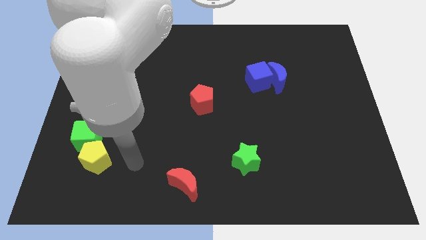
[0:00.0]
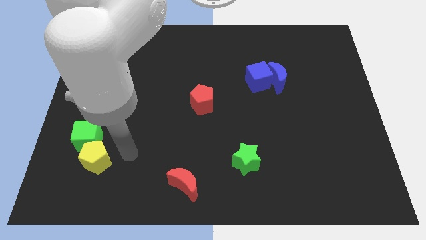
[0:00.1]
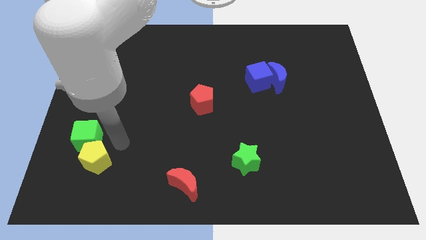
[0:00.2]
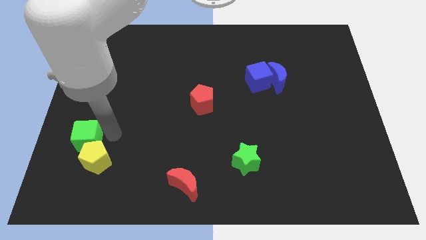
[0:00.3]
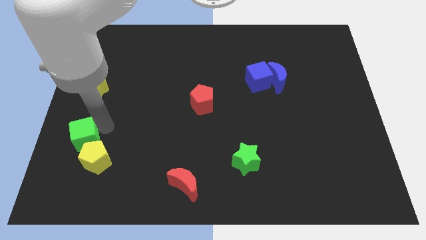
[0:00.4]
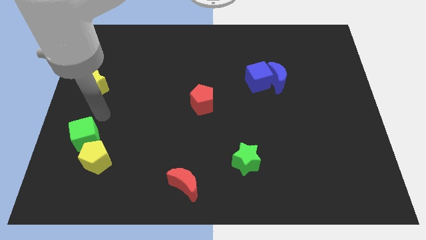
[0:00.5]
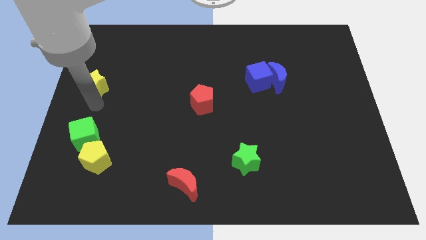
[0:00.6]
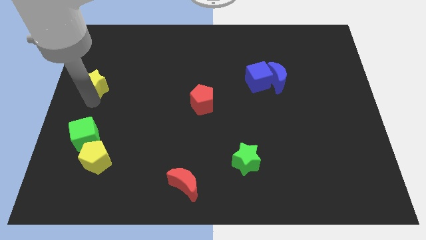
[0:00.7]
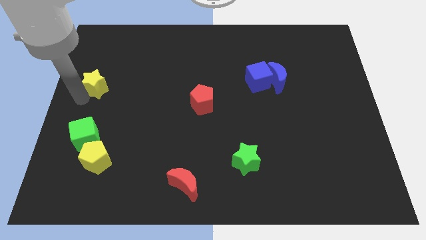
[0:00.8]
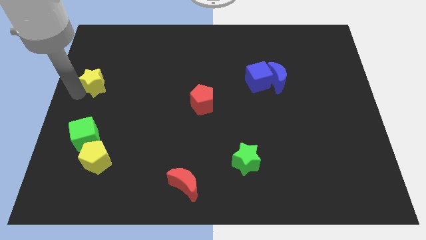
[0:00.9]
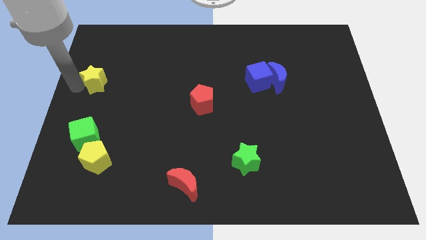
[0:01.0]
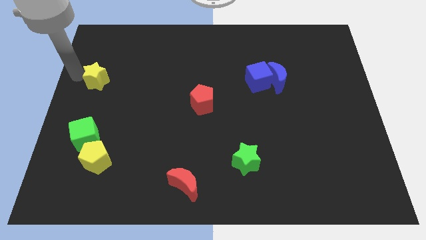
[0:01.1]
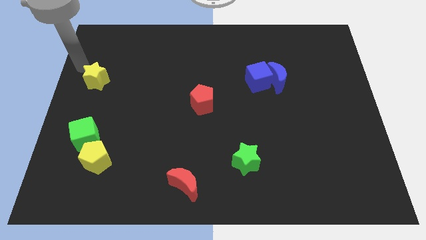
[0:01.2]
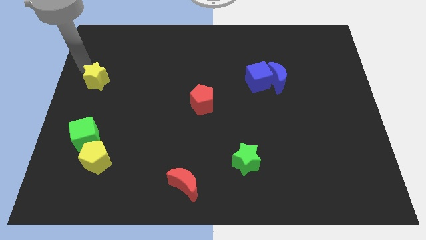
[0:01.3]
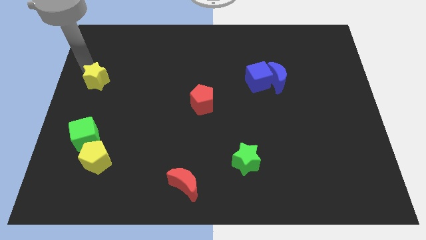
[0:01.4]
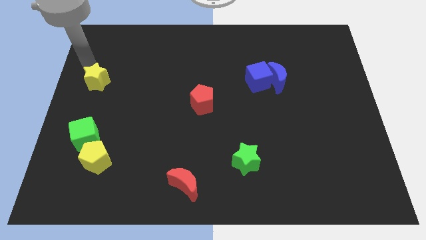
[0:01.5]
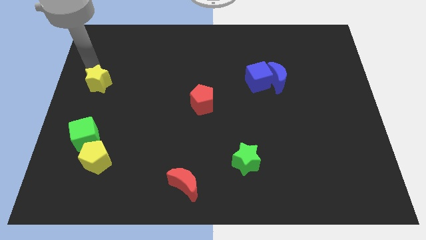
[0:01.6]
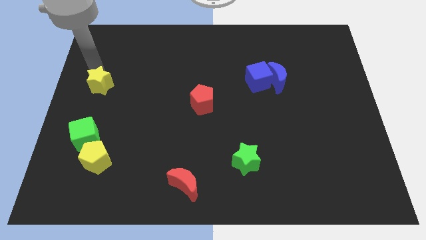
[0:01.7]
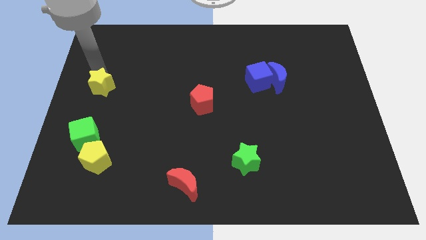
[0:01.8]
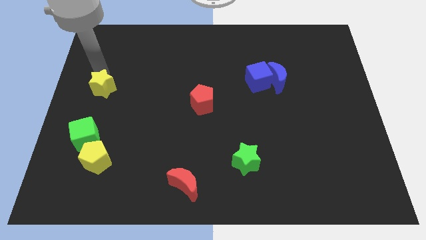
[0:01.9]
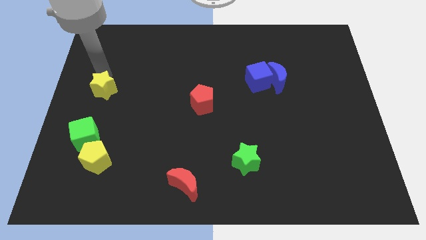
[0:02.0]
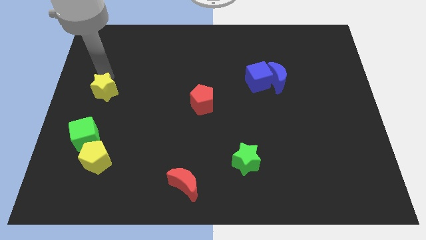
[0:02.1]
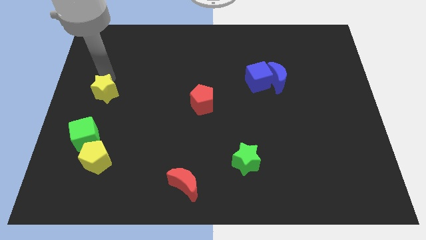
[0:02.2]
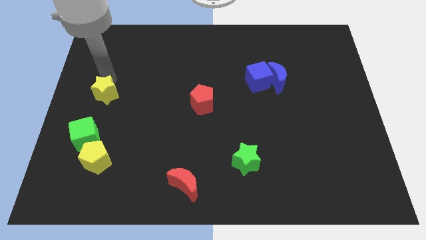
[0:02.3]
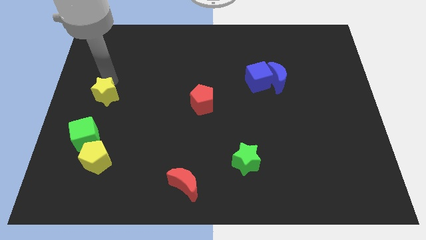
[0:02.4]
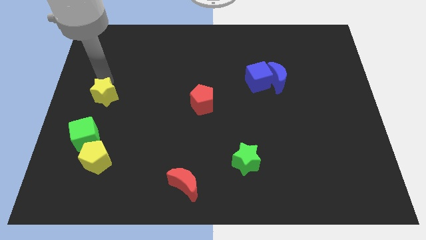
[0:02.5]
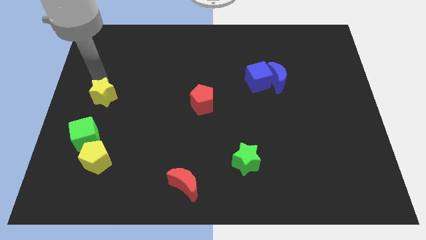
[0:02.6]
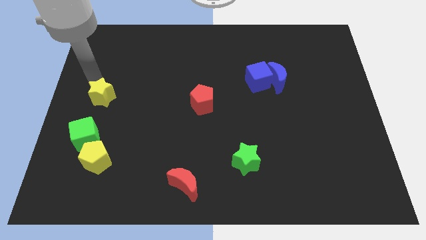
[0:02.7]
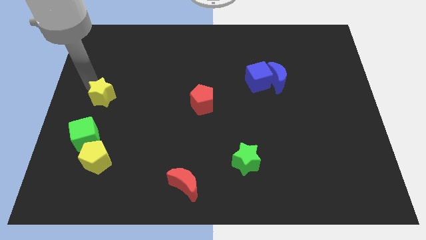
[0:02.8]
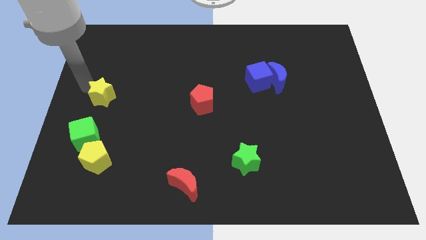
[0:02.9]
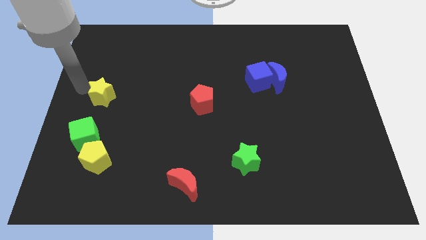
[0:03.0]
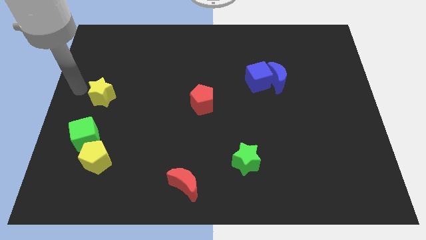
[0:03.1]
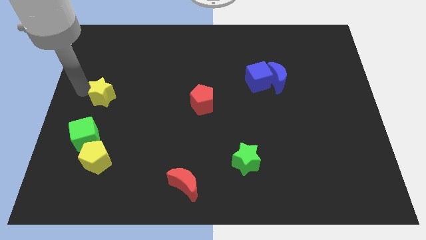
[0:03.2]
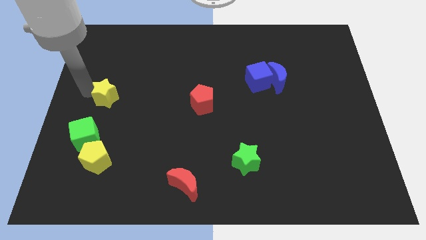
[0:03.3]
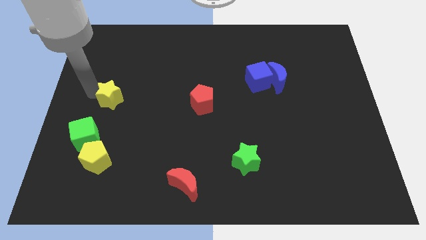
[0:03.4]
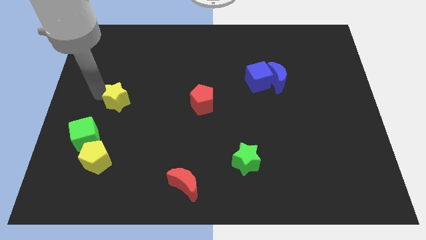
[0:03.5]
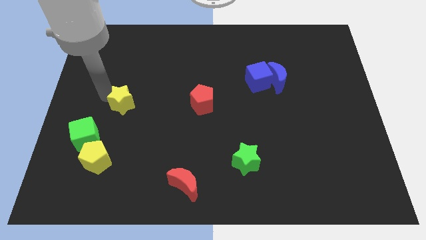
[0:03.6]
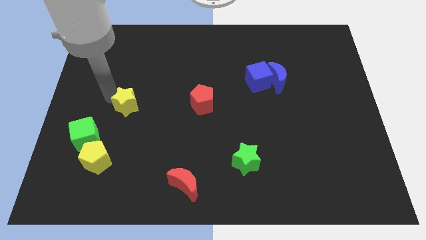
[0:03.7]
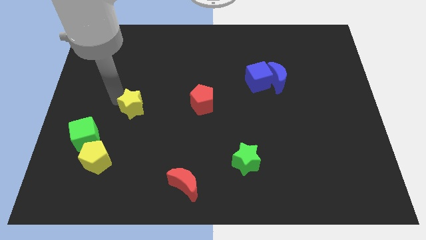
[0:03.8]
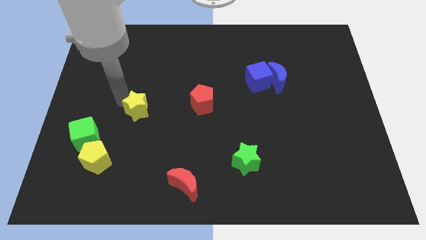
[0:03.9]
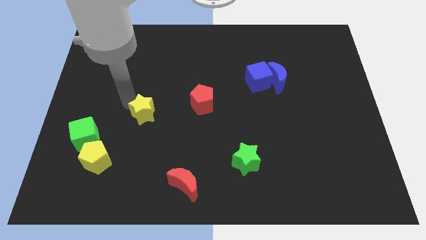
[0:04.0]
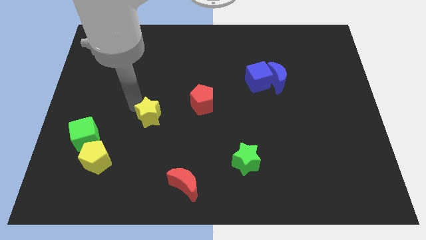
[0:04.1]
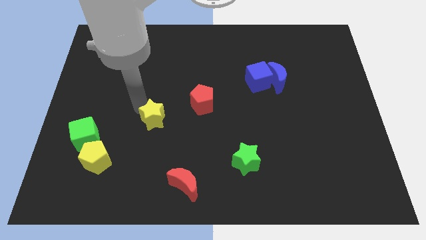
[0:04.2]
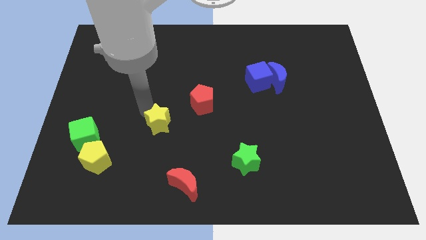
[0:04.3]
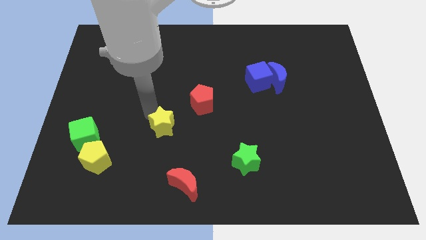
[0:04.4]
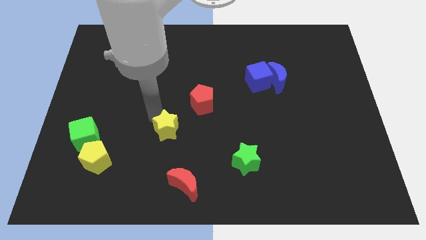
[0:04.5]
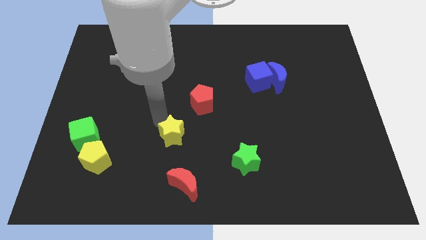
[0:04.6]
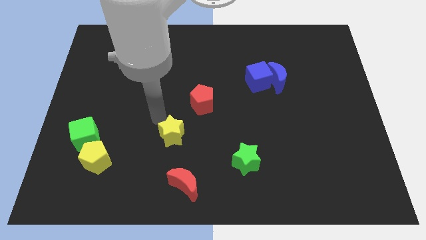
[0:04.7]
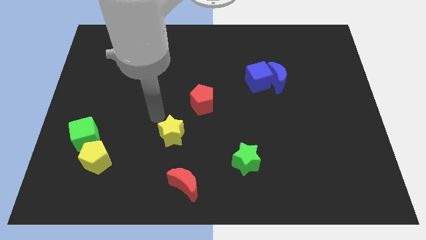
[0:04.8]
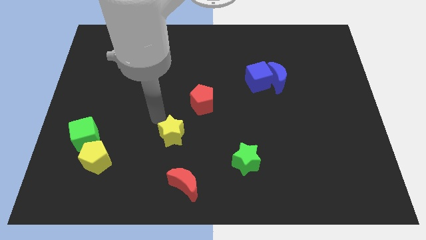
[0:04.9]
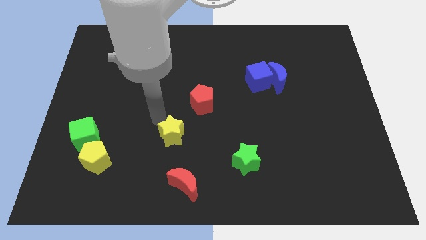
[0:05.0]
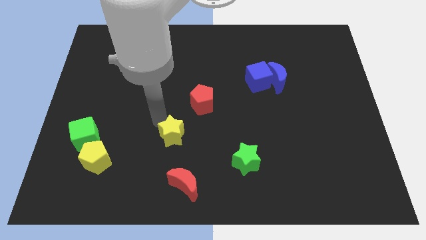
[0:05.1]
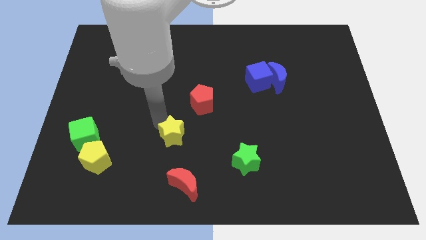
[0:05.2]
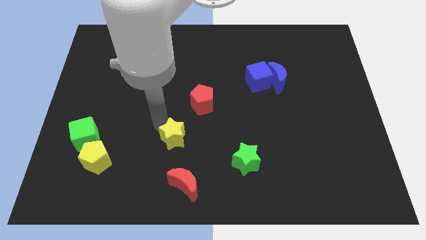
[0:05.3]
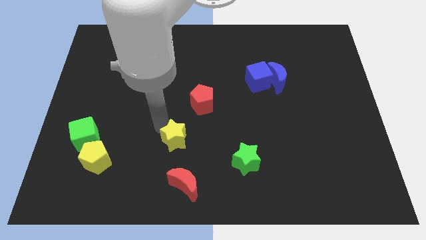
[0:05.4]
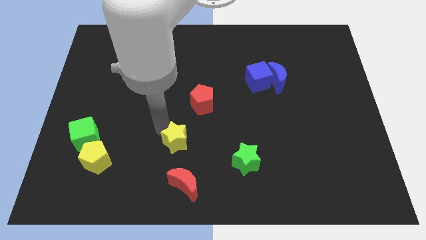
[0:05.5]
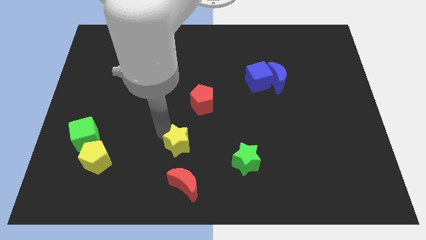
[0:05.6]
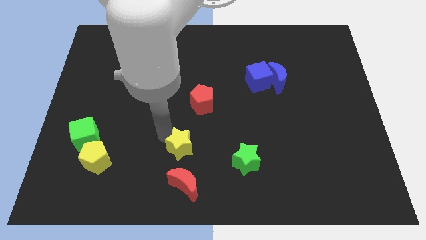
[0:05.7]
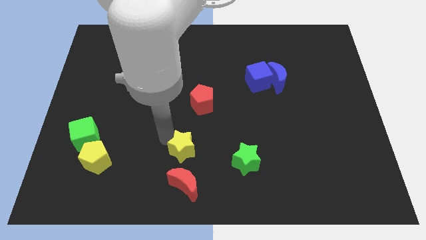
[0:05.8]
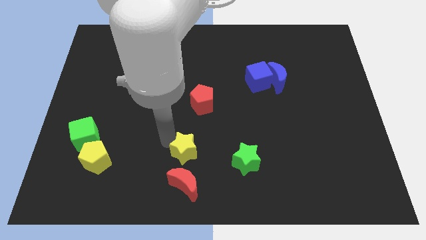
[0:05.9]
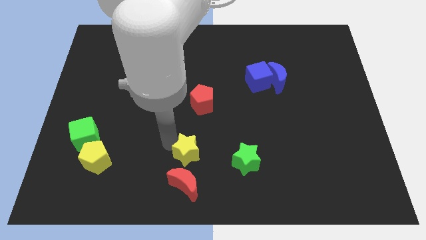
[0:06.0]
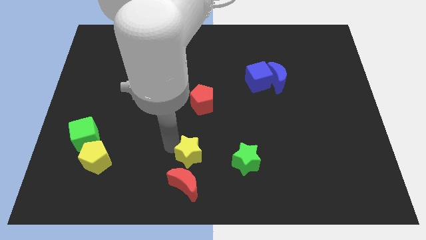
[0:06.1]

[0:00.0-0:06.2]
slide the yellow star to the top right of the red moon

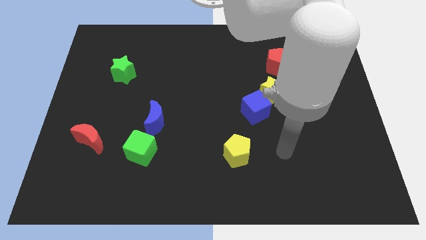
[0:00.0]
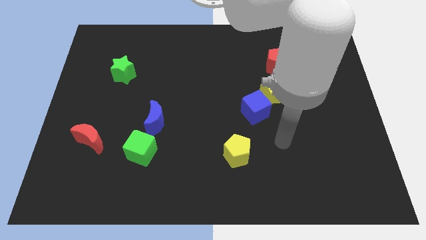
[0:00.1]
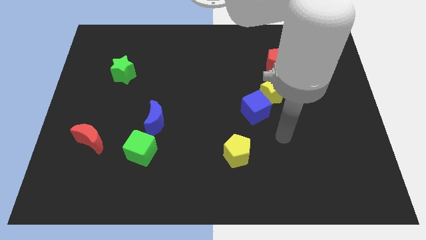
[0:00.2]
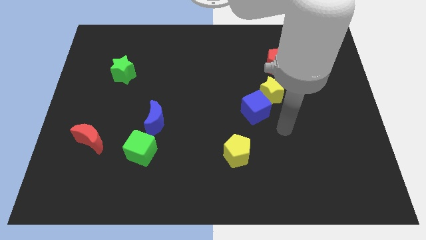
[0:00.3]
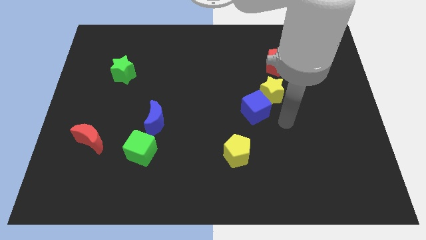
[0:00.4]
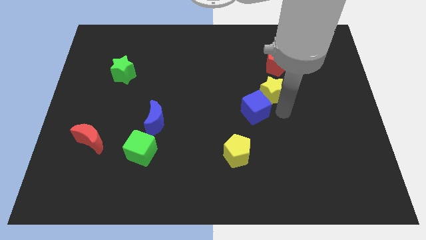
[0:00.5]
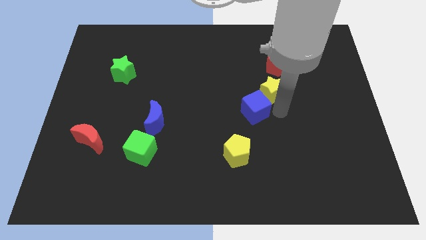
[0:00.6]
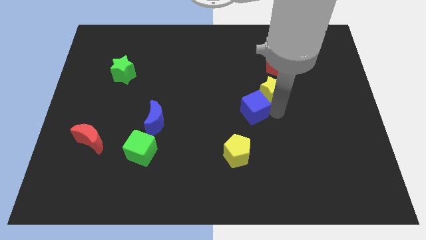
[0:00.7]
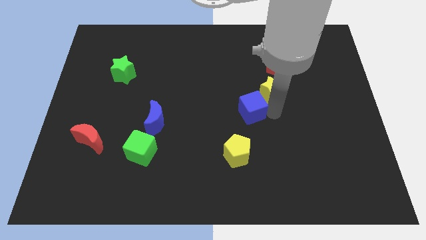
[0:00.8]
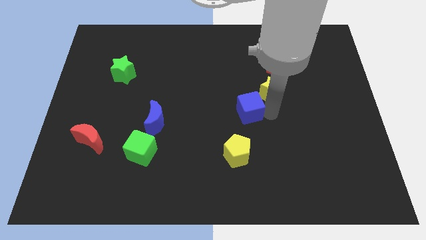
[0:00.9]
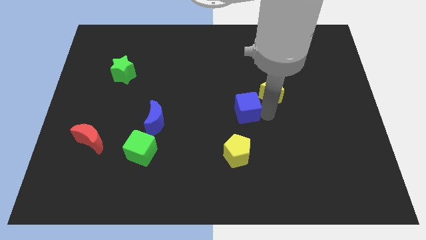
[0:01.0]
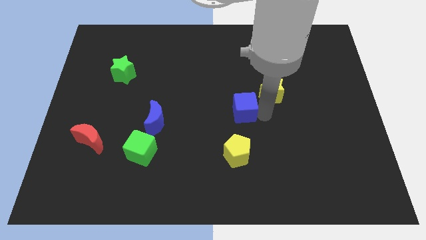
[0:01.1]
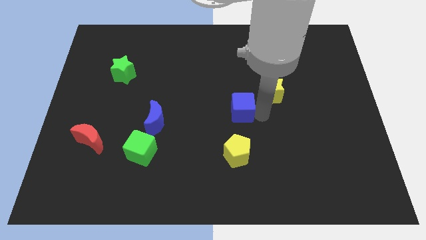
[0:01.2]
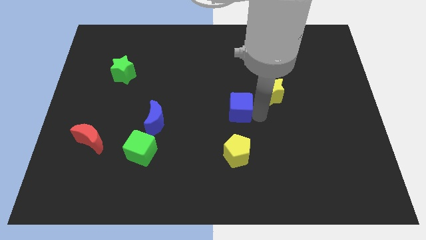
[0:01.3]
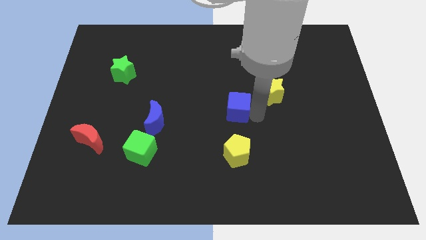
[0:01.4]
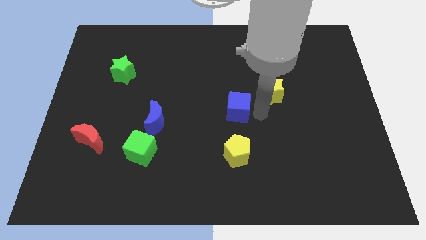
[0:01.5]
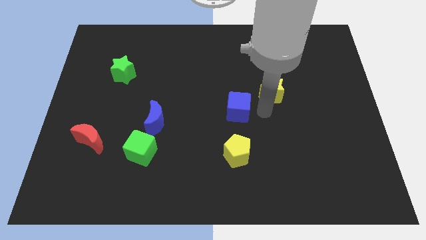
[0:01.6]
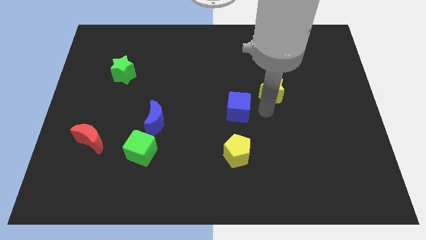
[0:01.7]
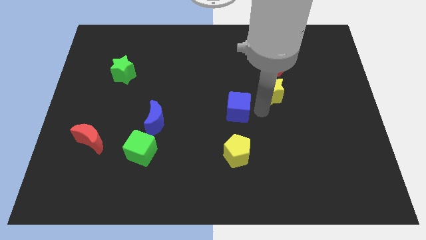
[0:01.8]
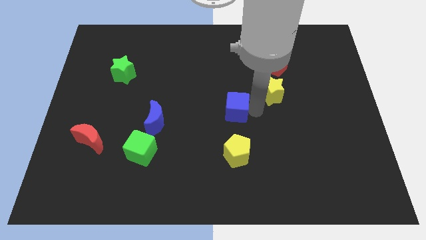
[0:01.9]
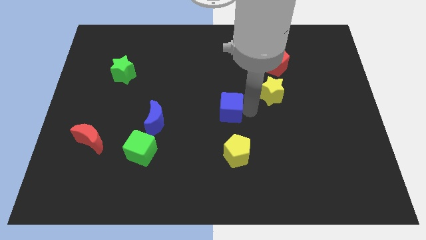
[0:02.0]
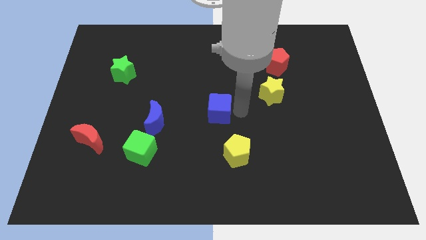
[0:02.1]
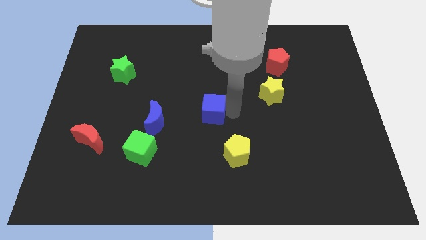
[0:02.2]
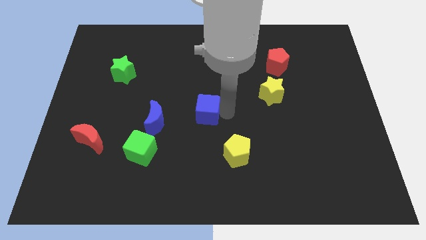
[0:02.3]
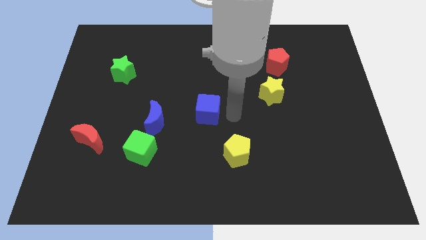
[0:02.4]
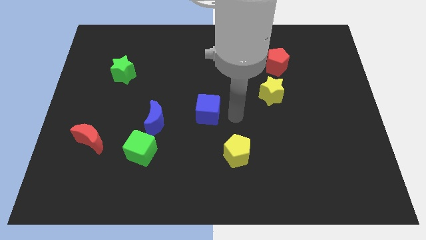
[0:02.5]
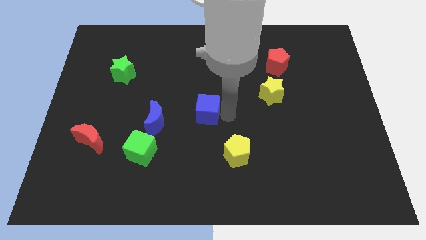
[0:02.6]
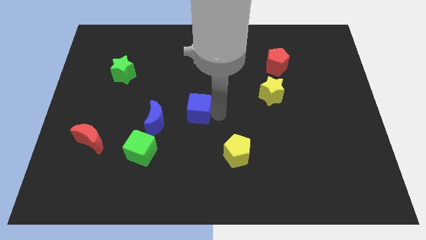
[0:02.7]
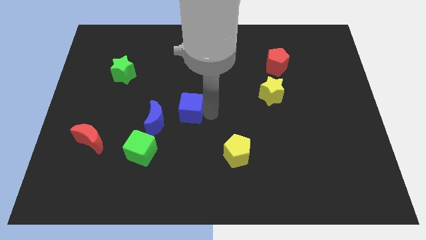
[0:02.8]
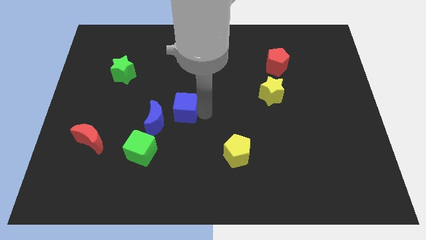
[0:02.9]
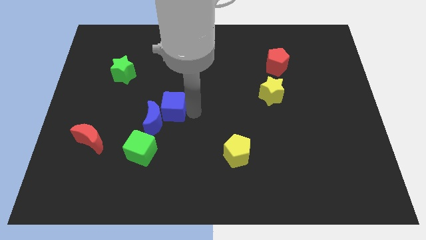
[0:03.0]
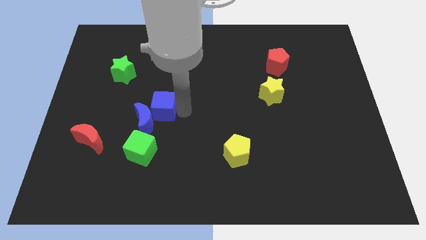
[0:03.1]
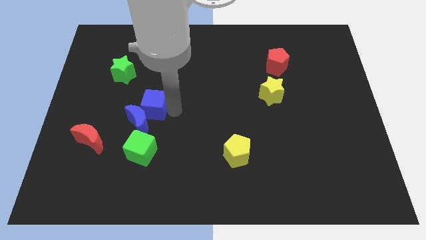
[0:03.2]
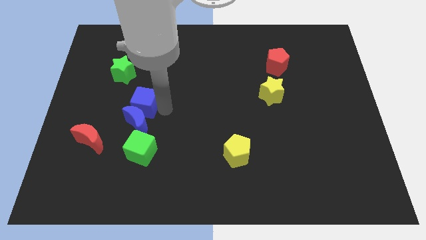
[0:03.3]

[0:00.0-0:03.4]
put the blue cube diagonally up and to the left of the blue moon
